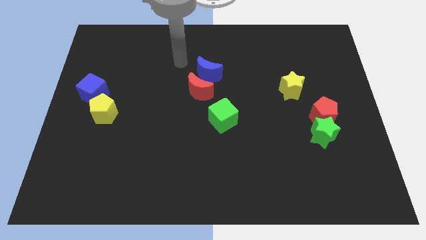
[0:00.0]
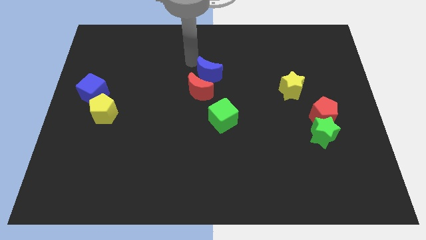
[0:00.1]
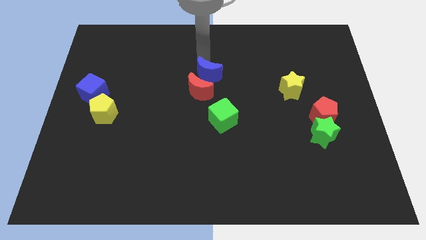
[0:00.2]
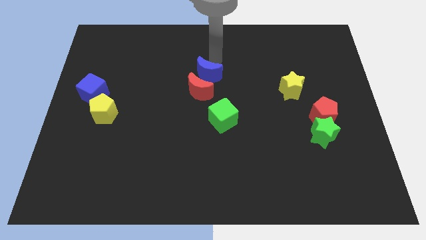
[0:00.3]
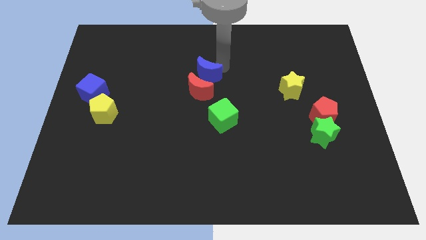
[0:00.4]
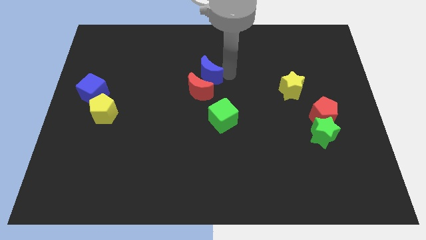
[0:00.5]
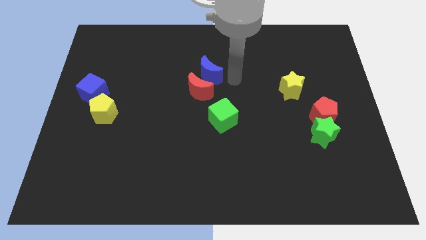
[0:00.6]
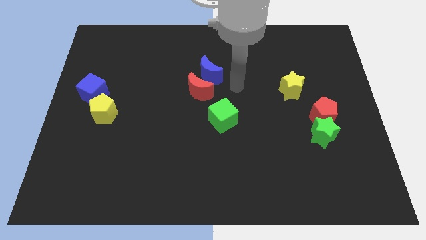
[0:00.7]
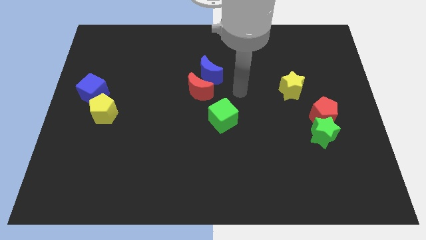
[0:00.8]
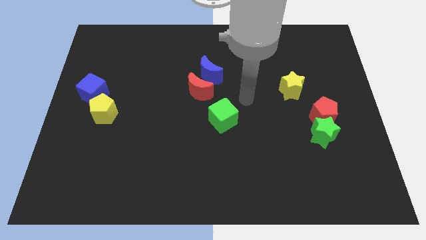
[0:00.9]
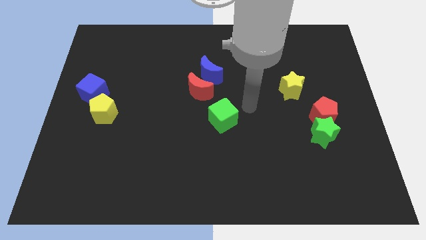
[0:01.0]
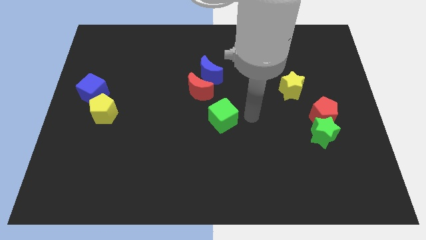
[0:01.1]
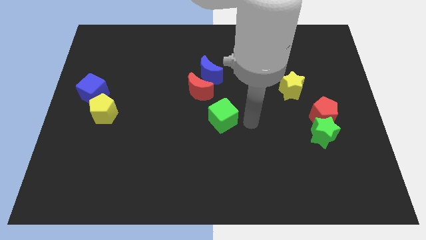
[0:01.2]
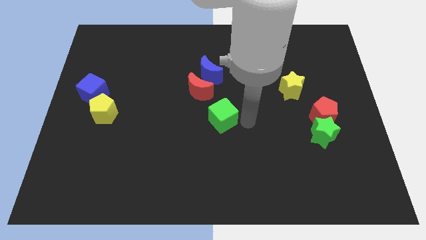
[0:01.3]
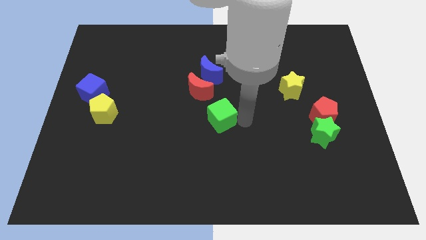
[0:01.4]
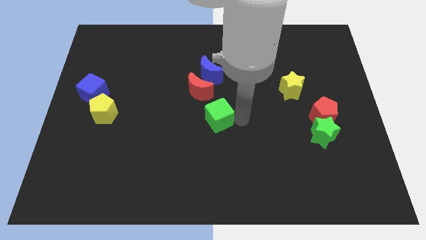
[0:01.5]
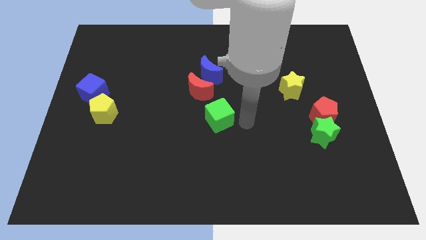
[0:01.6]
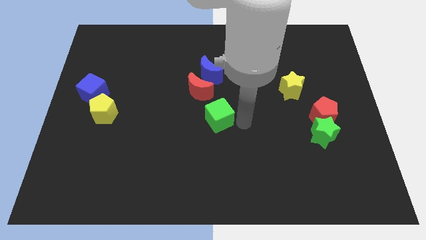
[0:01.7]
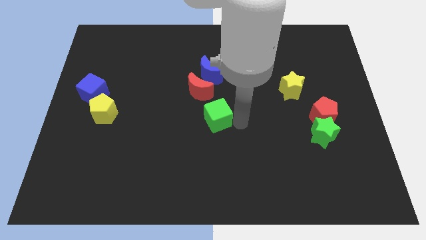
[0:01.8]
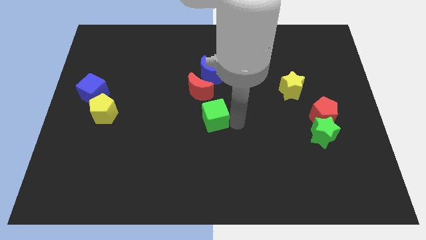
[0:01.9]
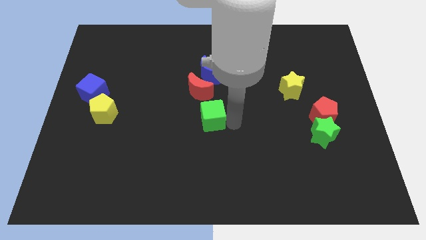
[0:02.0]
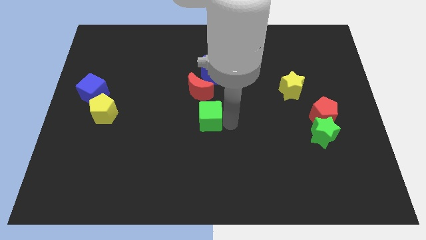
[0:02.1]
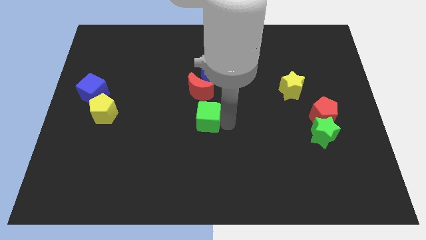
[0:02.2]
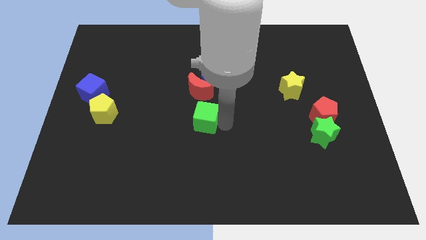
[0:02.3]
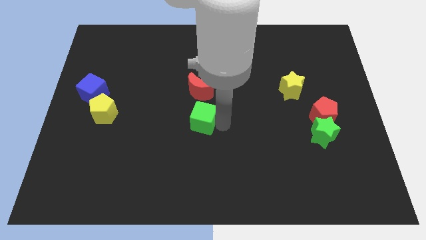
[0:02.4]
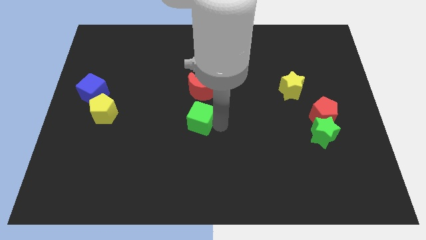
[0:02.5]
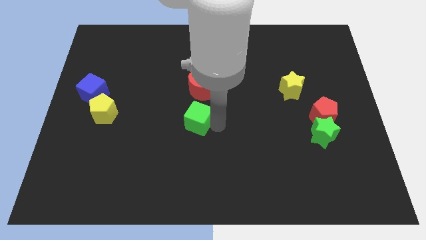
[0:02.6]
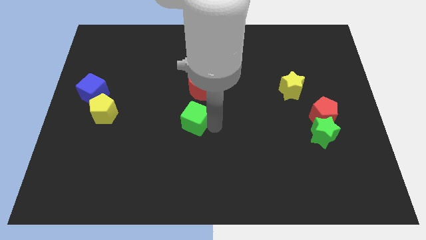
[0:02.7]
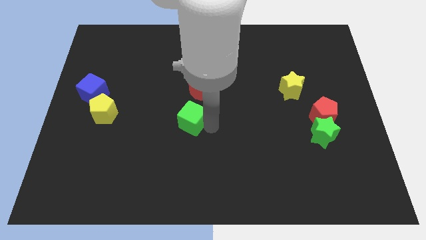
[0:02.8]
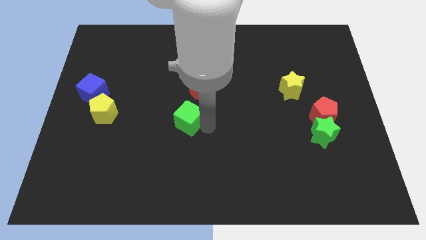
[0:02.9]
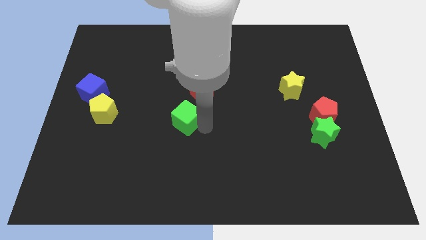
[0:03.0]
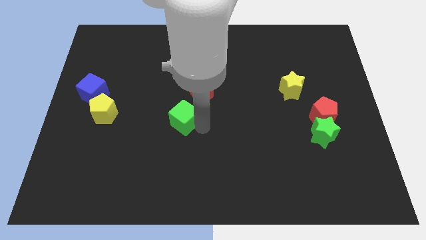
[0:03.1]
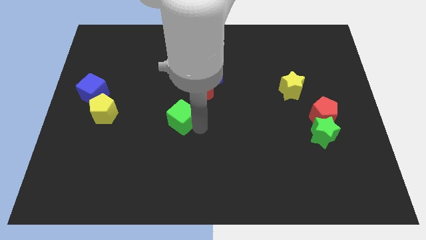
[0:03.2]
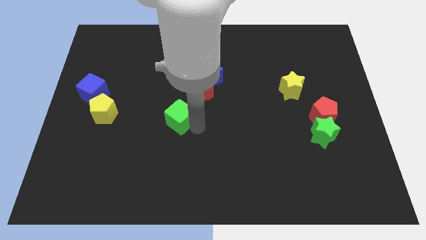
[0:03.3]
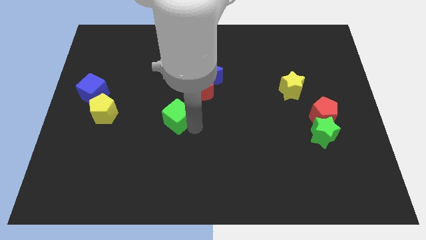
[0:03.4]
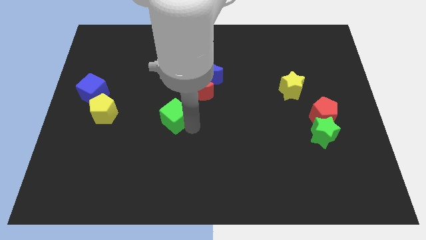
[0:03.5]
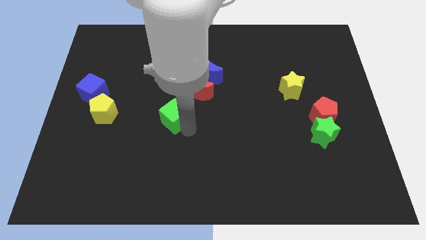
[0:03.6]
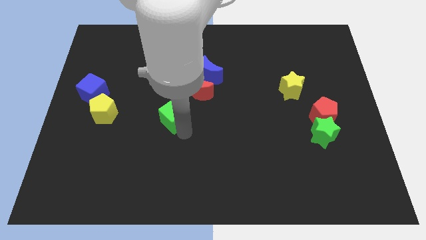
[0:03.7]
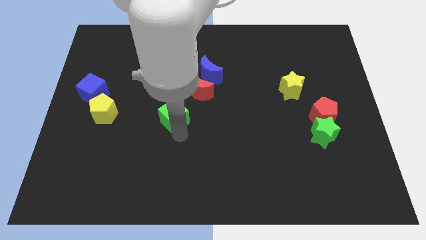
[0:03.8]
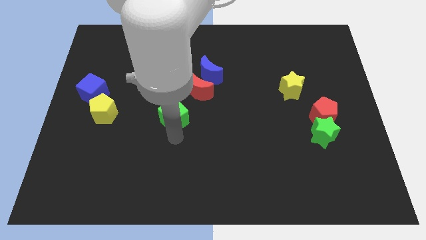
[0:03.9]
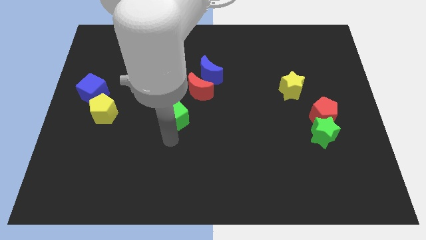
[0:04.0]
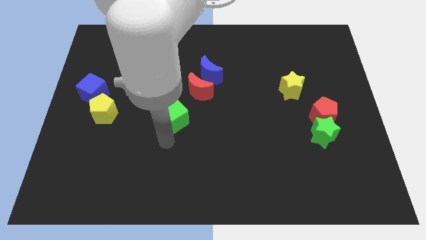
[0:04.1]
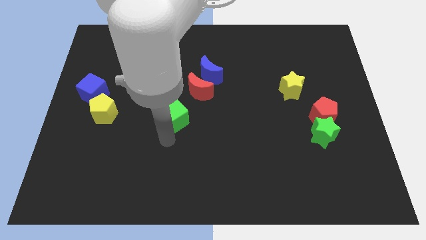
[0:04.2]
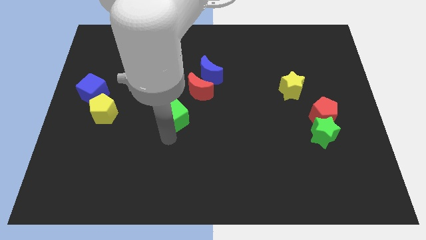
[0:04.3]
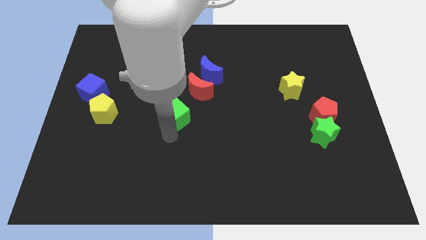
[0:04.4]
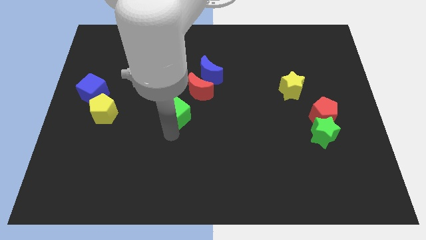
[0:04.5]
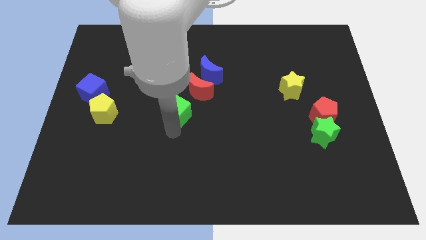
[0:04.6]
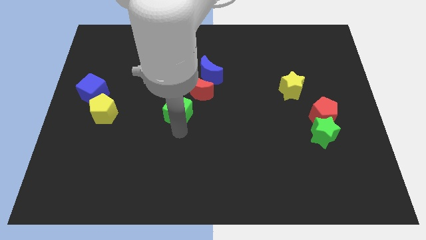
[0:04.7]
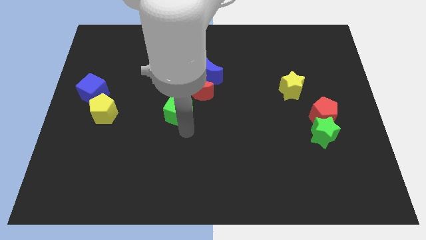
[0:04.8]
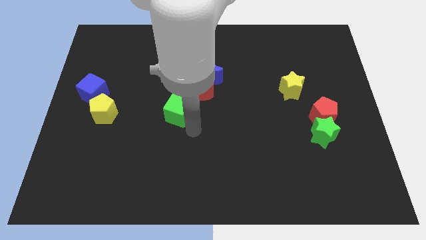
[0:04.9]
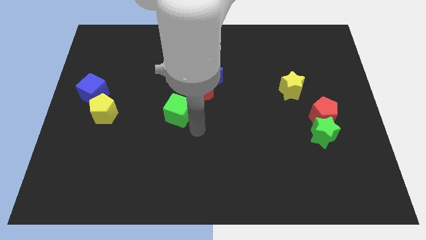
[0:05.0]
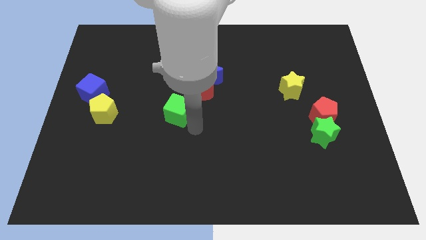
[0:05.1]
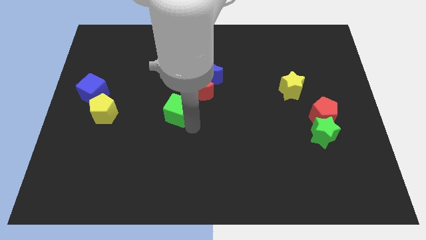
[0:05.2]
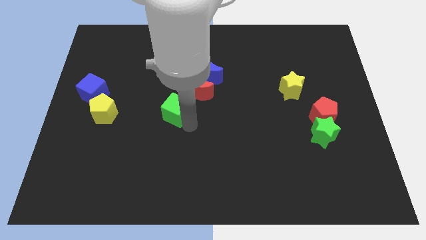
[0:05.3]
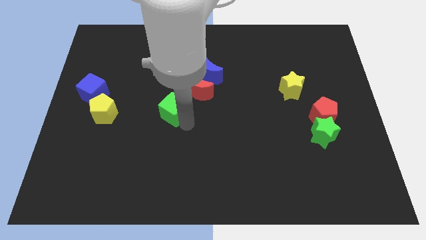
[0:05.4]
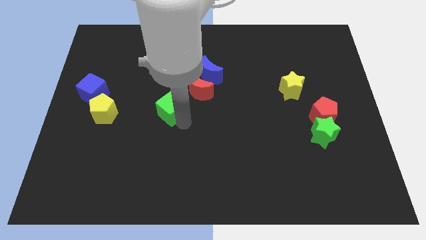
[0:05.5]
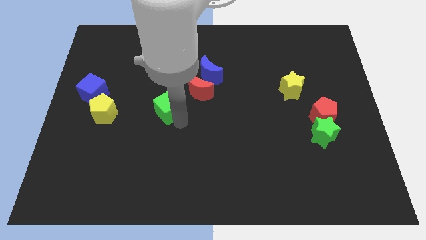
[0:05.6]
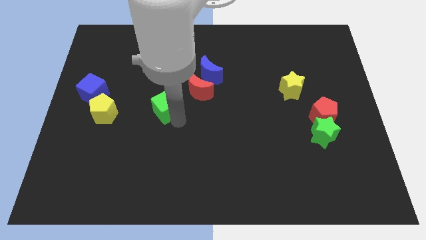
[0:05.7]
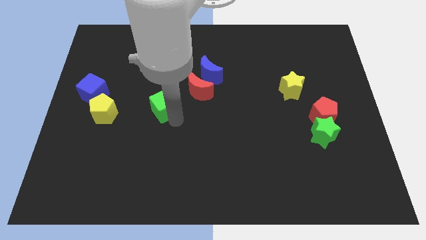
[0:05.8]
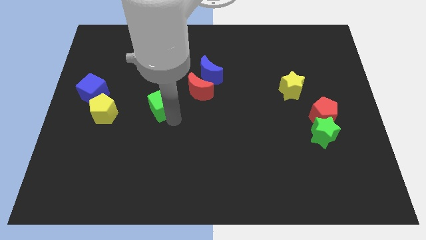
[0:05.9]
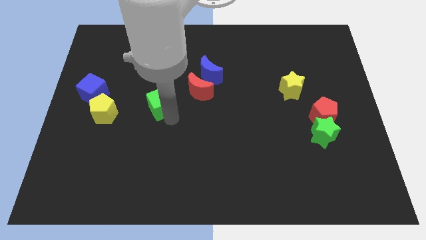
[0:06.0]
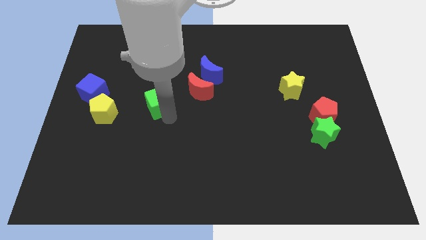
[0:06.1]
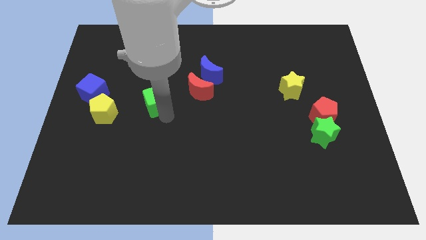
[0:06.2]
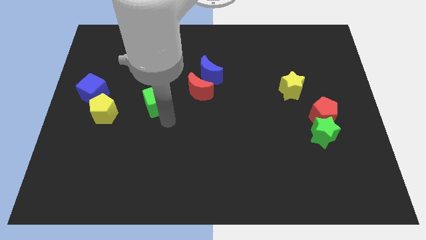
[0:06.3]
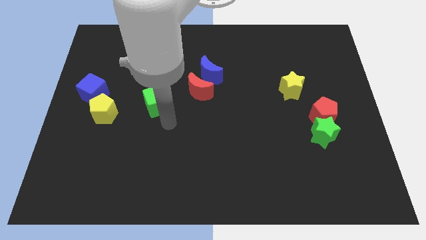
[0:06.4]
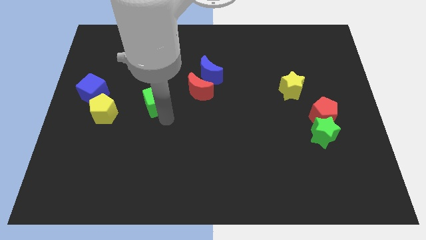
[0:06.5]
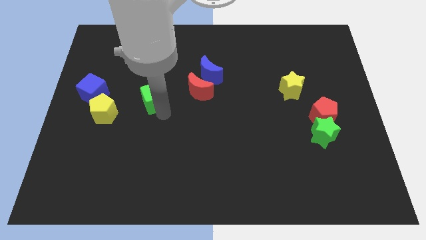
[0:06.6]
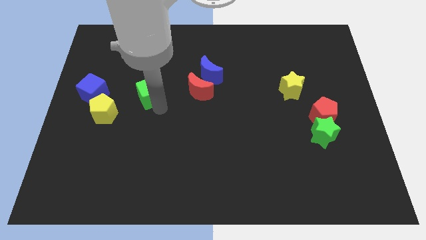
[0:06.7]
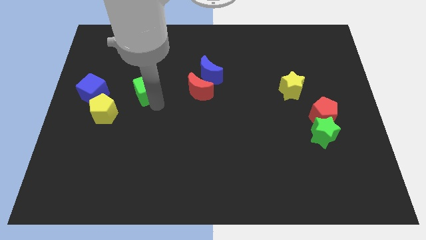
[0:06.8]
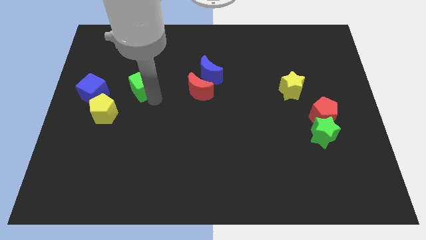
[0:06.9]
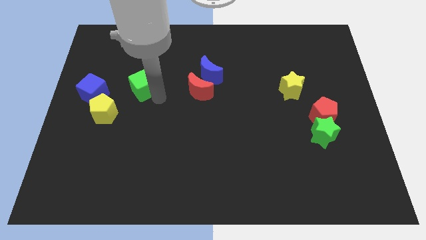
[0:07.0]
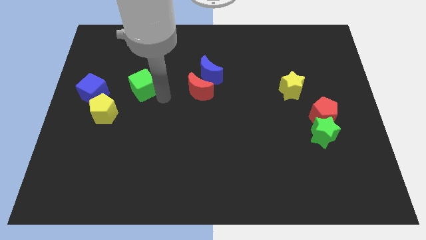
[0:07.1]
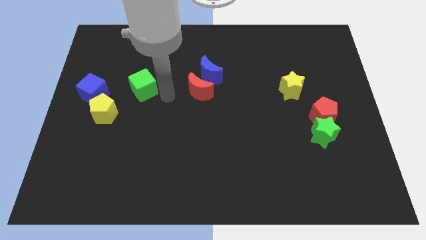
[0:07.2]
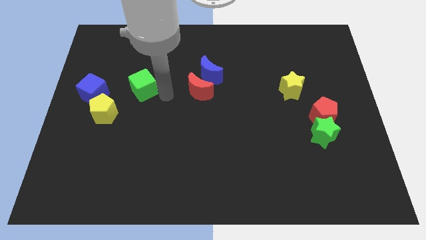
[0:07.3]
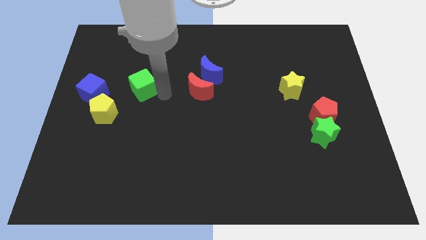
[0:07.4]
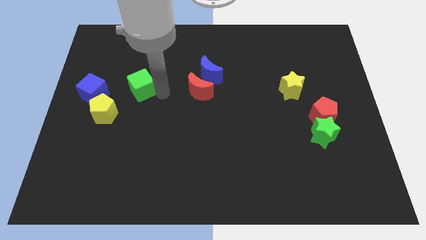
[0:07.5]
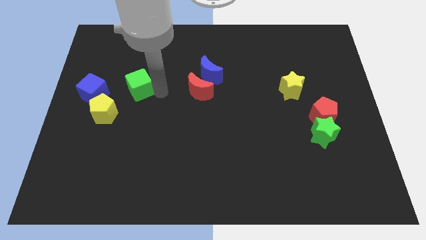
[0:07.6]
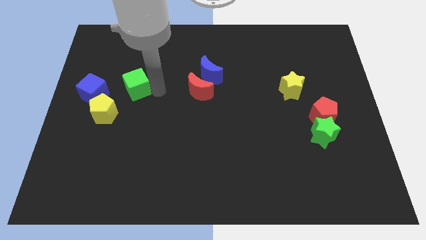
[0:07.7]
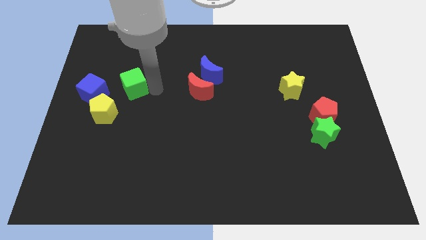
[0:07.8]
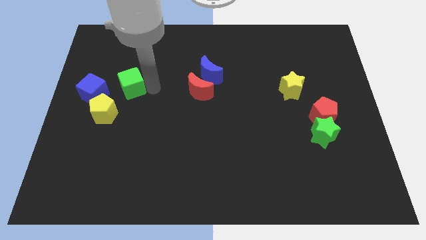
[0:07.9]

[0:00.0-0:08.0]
put the green cube to the top right side of the blue cube
